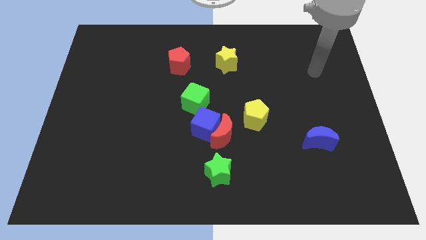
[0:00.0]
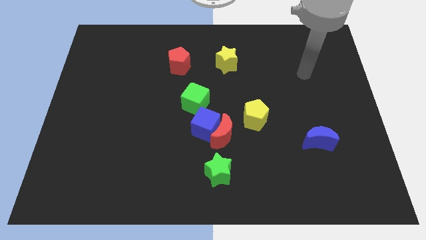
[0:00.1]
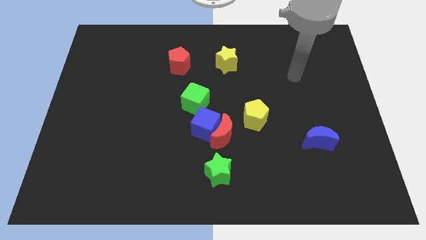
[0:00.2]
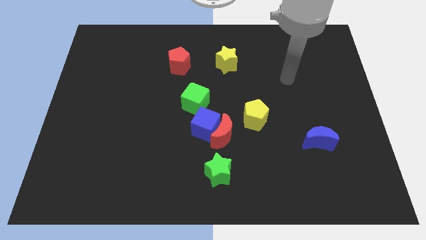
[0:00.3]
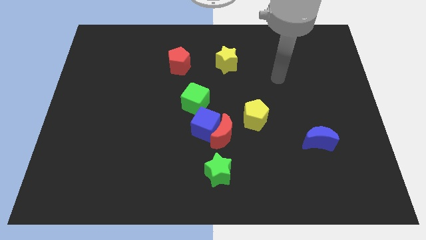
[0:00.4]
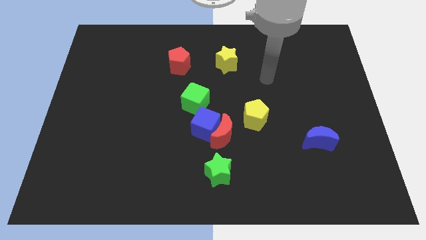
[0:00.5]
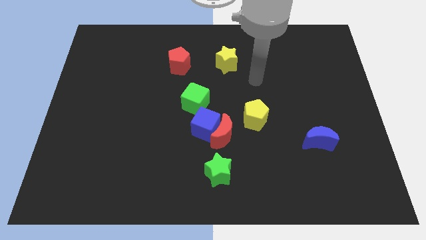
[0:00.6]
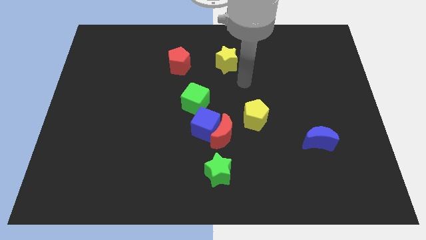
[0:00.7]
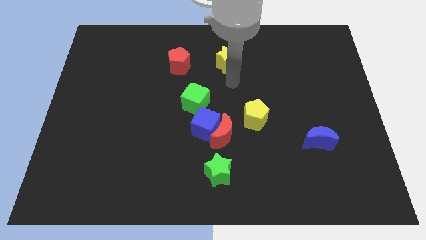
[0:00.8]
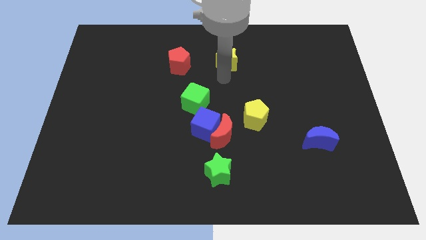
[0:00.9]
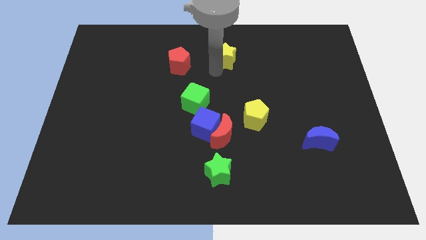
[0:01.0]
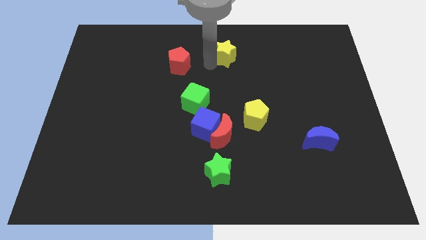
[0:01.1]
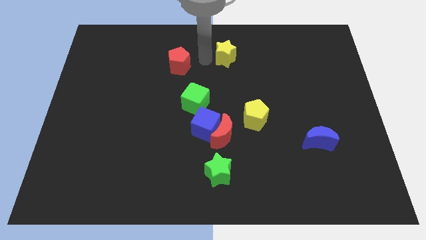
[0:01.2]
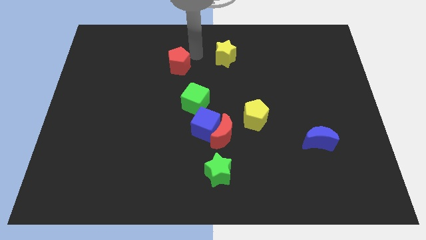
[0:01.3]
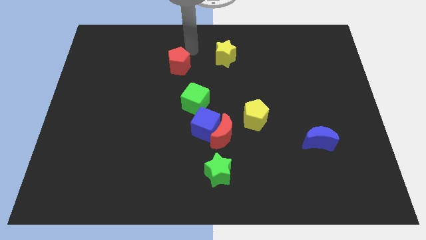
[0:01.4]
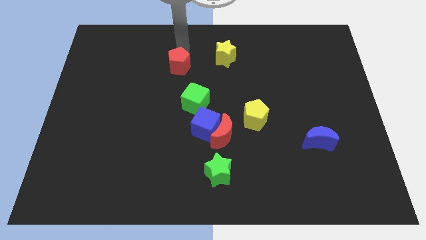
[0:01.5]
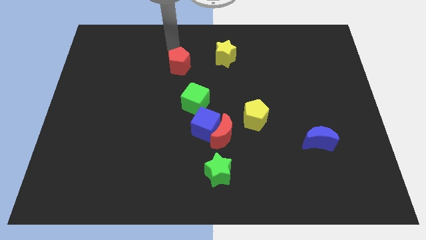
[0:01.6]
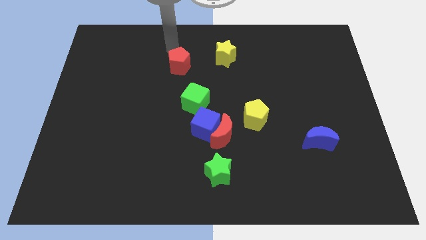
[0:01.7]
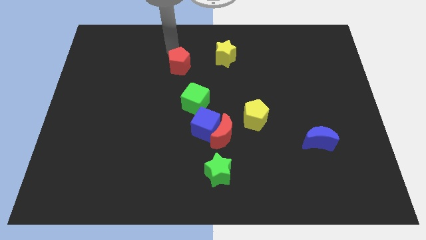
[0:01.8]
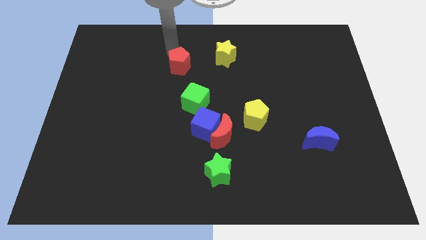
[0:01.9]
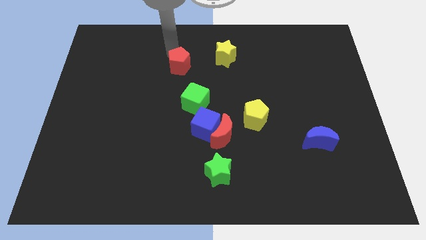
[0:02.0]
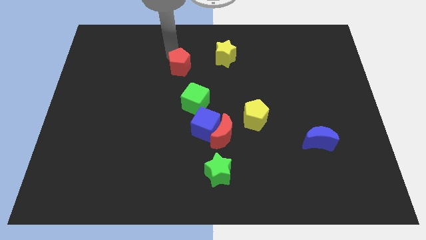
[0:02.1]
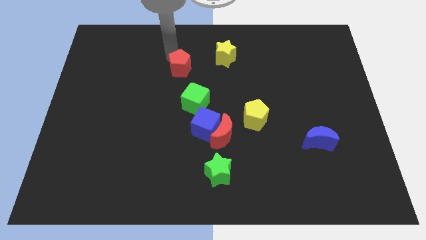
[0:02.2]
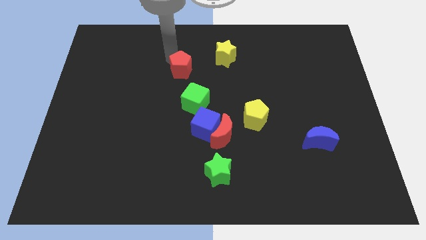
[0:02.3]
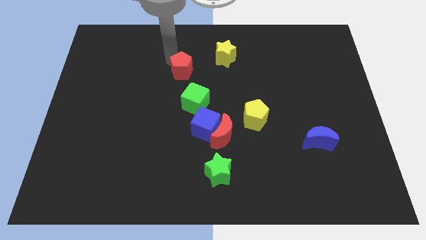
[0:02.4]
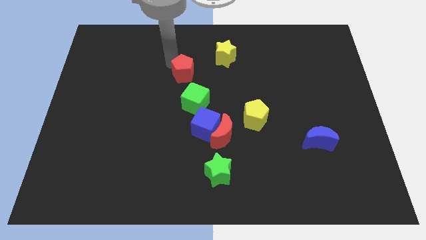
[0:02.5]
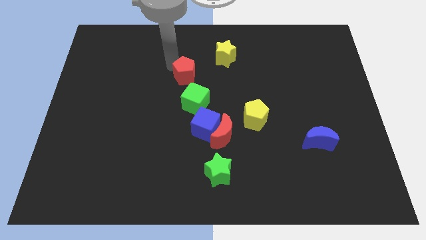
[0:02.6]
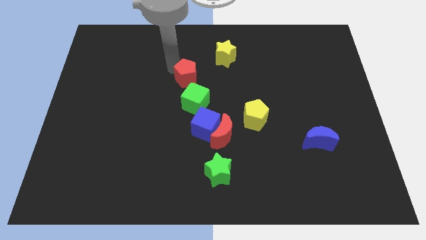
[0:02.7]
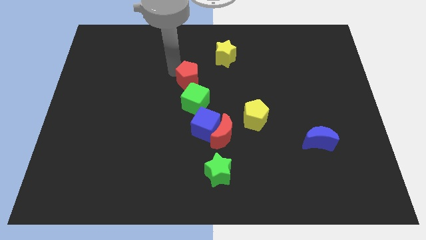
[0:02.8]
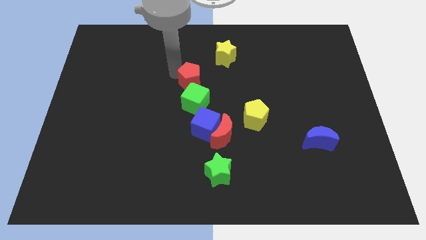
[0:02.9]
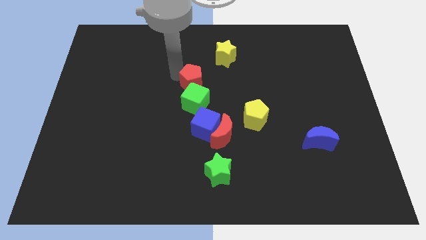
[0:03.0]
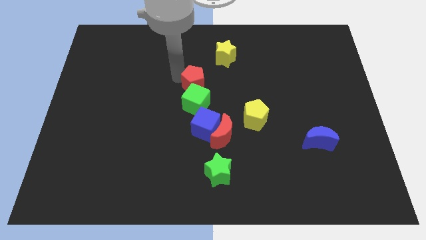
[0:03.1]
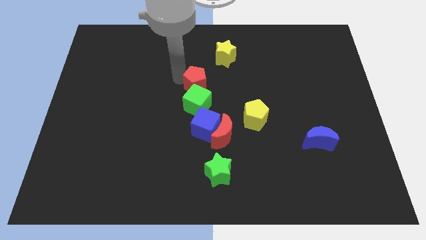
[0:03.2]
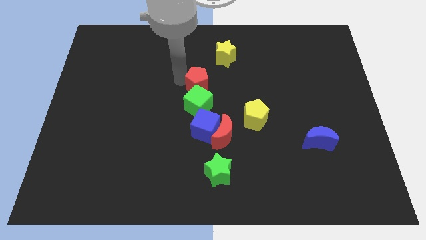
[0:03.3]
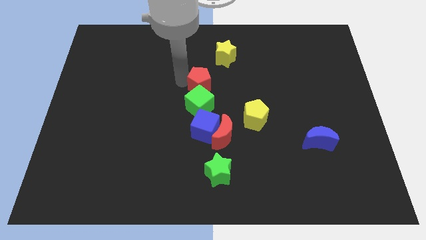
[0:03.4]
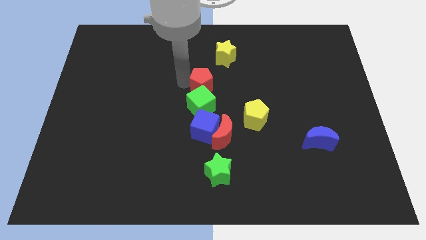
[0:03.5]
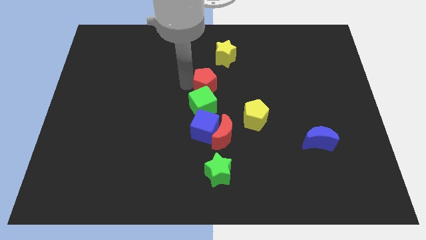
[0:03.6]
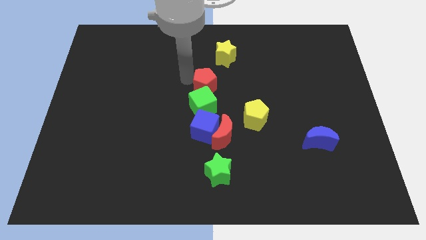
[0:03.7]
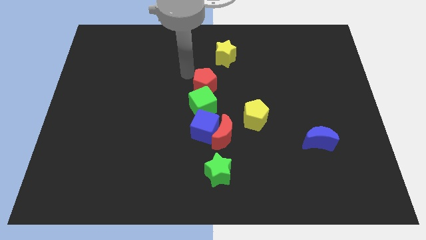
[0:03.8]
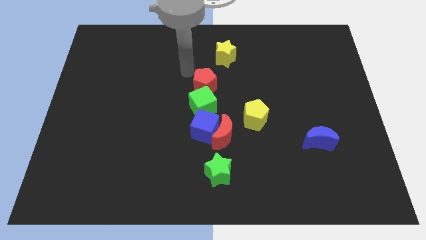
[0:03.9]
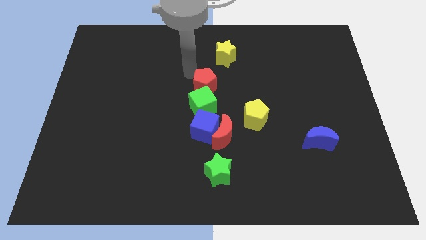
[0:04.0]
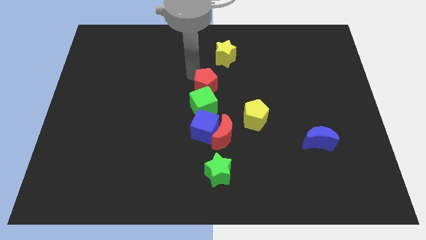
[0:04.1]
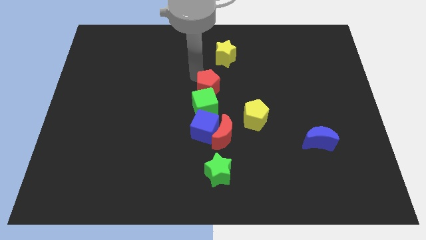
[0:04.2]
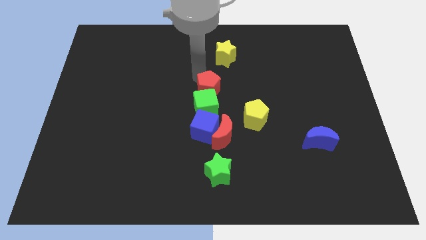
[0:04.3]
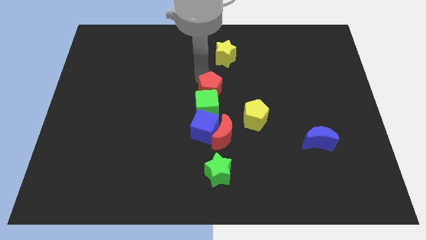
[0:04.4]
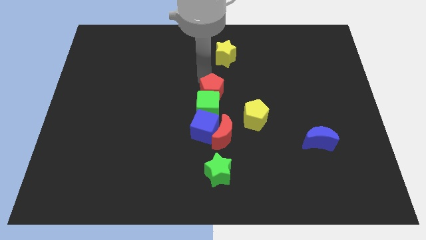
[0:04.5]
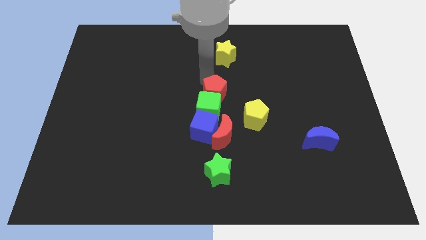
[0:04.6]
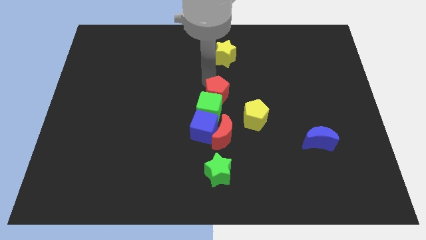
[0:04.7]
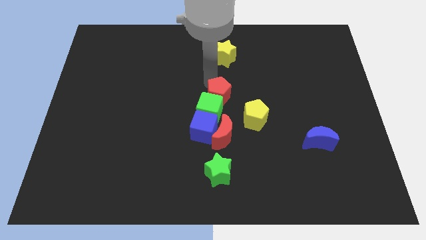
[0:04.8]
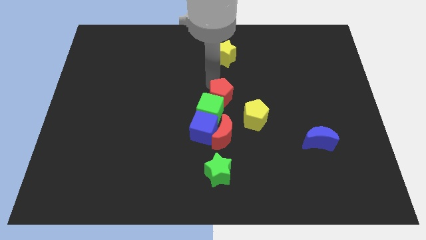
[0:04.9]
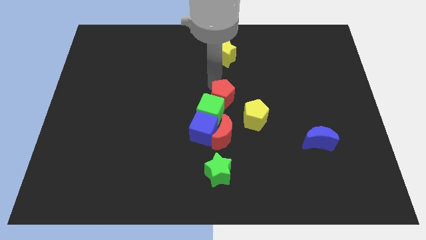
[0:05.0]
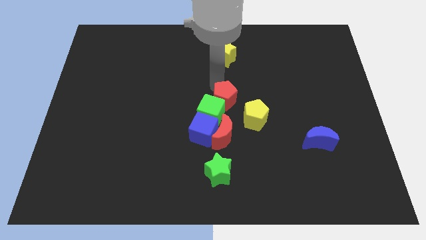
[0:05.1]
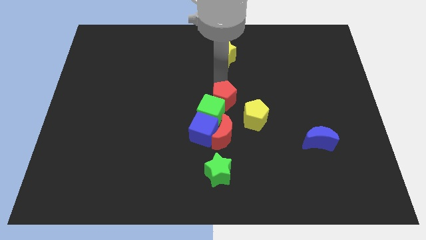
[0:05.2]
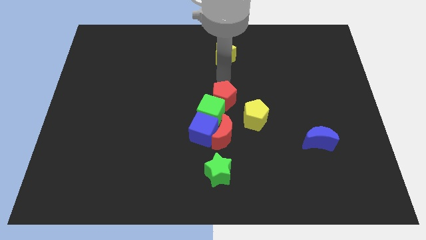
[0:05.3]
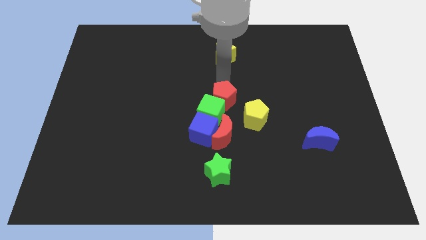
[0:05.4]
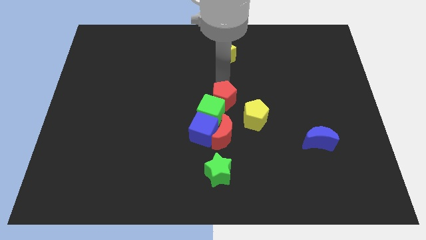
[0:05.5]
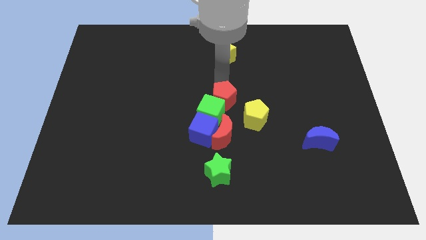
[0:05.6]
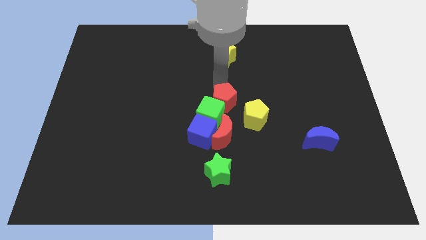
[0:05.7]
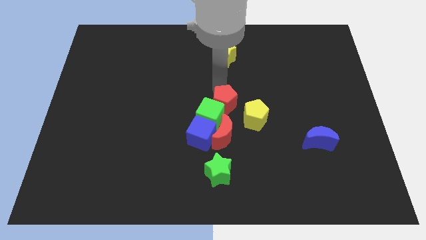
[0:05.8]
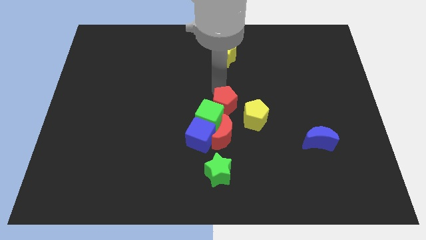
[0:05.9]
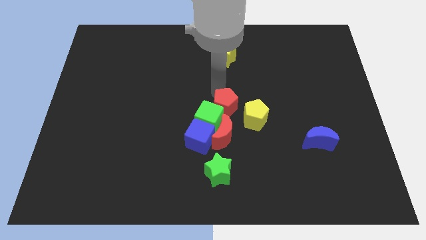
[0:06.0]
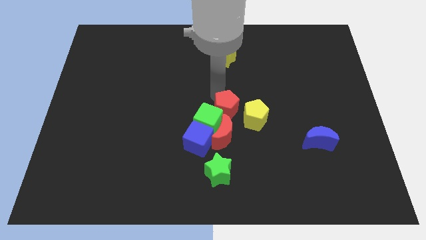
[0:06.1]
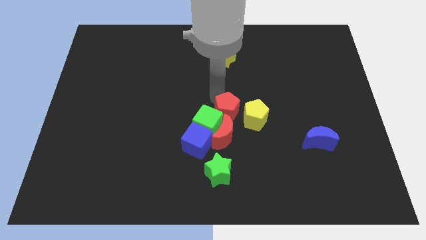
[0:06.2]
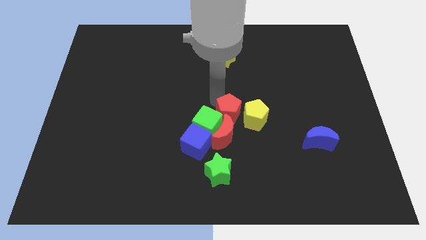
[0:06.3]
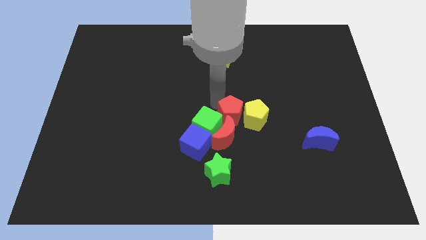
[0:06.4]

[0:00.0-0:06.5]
slide the red pentagon next to the red moon

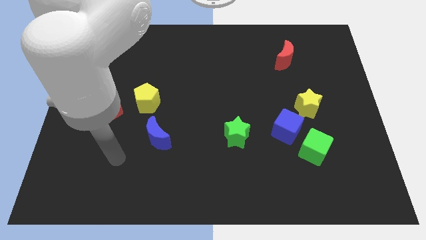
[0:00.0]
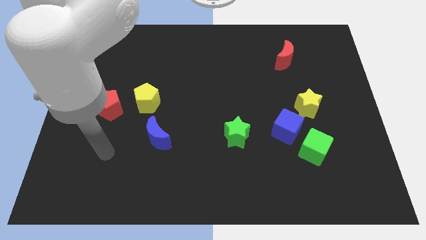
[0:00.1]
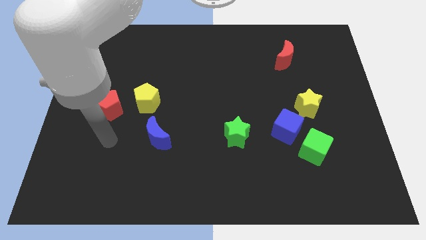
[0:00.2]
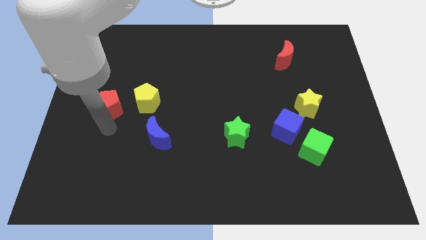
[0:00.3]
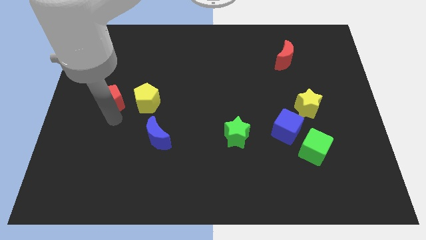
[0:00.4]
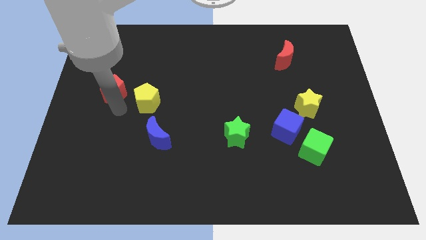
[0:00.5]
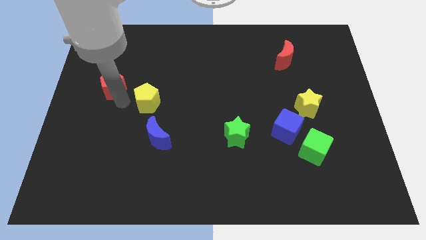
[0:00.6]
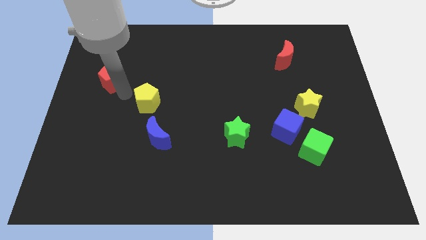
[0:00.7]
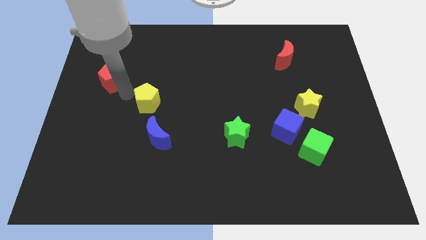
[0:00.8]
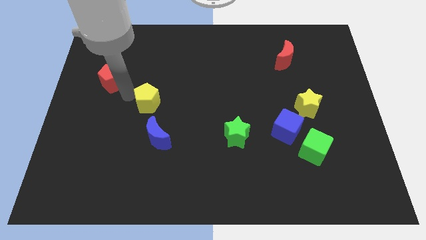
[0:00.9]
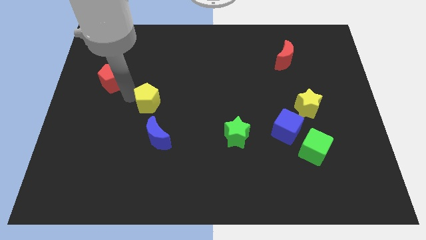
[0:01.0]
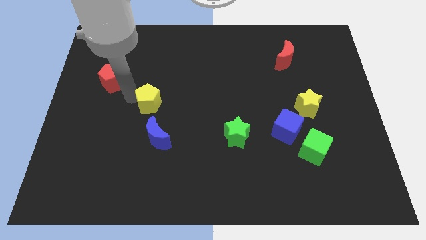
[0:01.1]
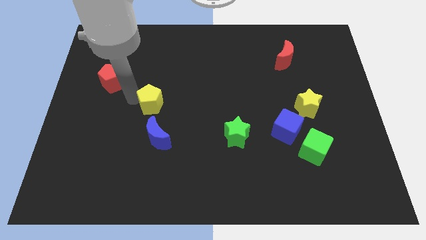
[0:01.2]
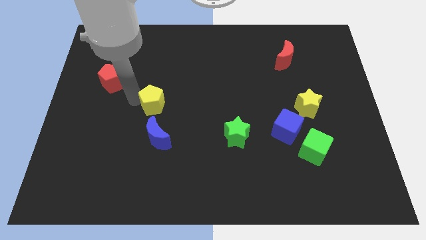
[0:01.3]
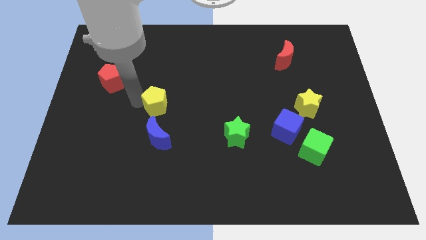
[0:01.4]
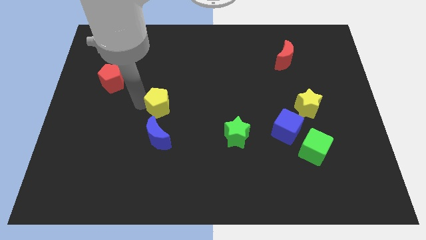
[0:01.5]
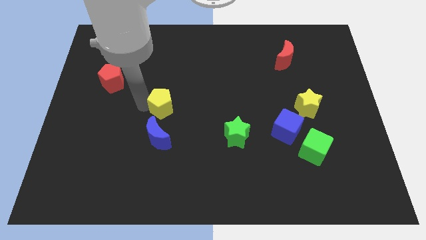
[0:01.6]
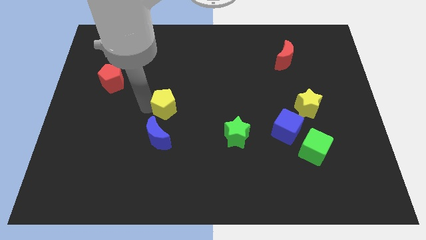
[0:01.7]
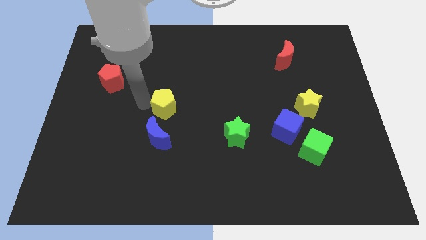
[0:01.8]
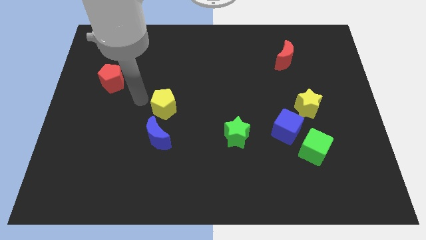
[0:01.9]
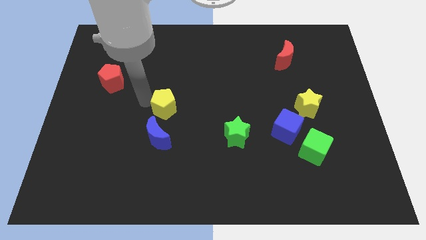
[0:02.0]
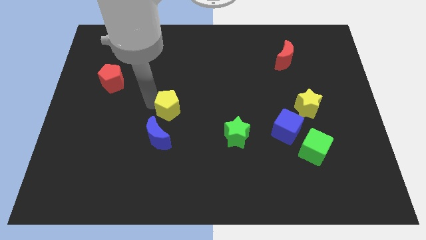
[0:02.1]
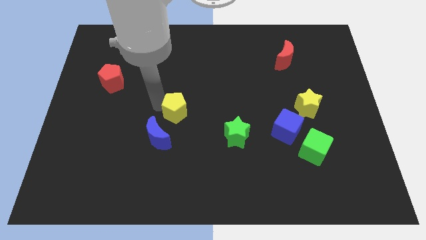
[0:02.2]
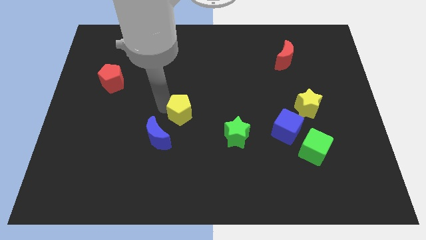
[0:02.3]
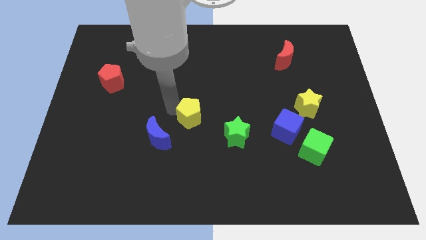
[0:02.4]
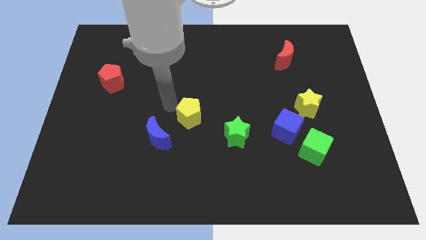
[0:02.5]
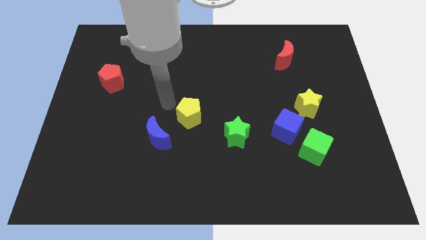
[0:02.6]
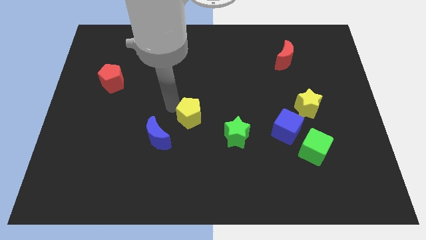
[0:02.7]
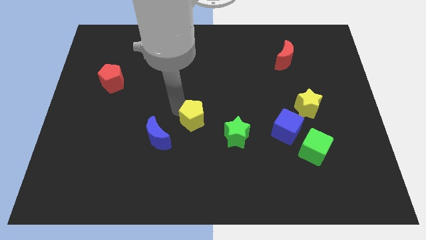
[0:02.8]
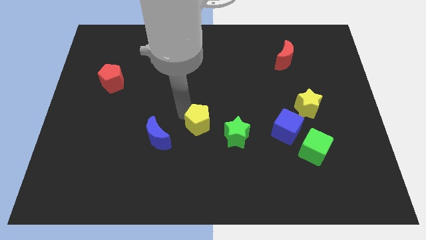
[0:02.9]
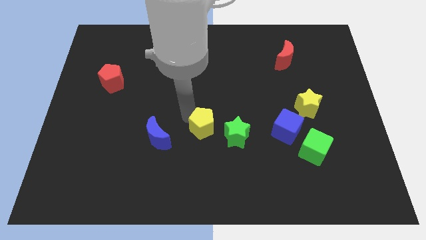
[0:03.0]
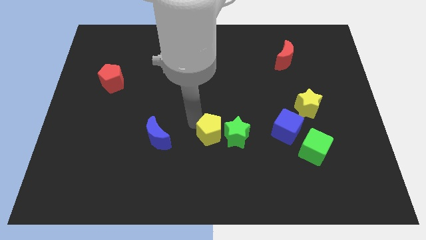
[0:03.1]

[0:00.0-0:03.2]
slide the yellow pentagon close to the green star
